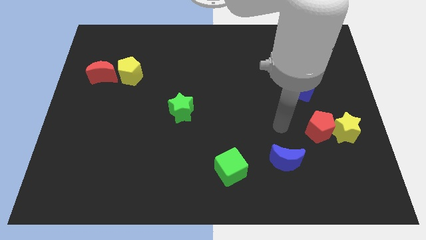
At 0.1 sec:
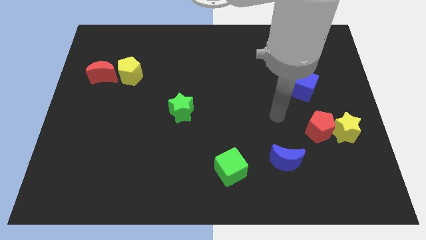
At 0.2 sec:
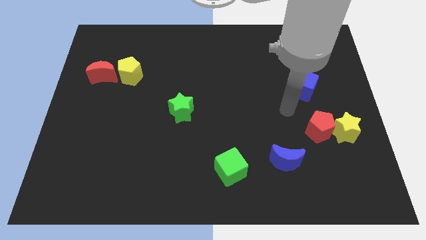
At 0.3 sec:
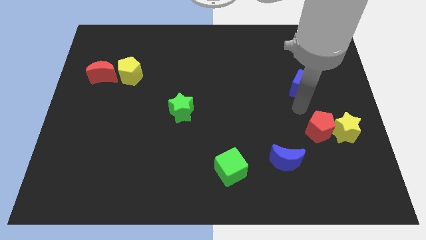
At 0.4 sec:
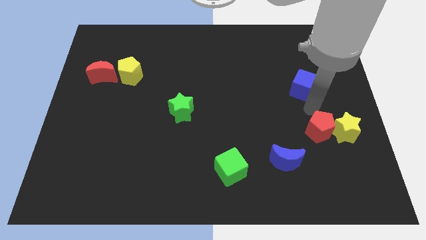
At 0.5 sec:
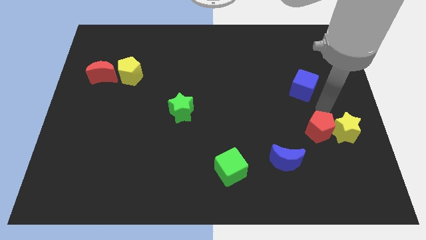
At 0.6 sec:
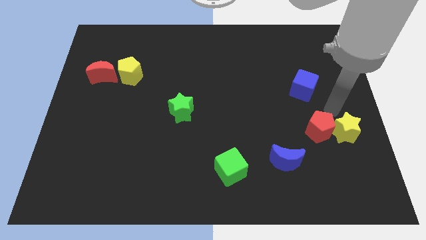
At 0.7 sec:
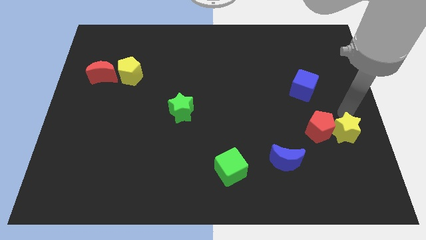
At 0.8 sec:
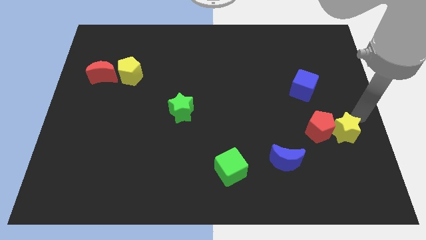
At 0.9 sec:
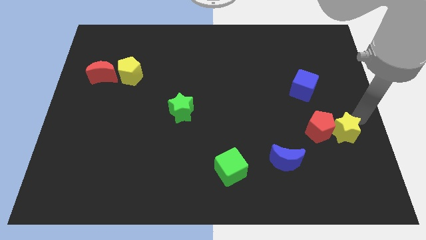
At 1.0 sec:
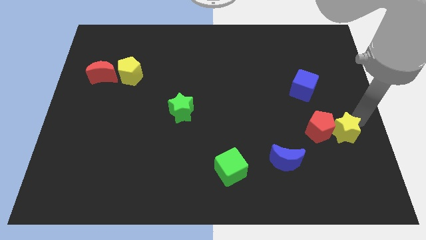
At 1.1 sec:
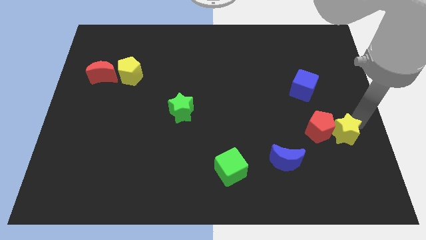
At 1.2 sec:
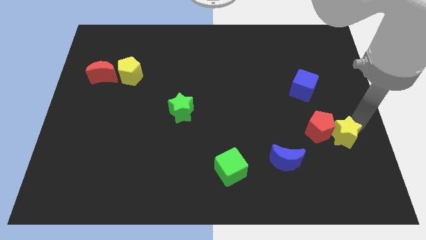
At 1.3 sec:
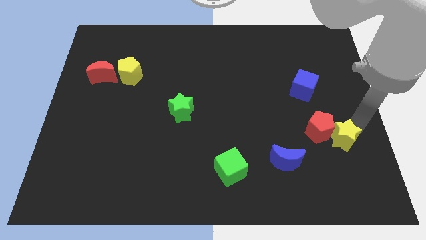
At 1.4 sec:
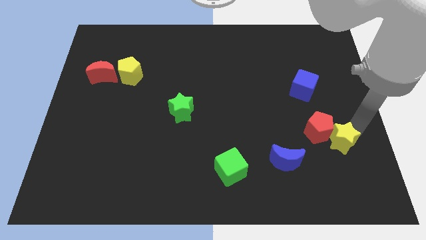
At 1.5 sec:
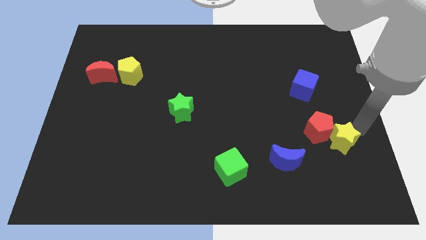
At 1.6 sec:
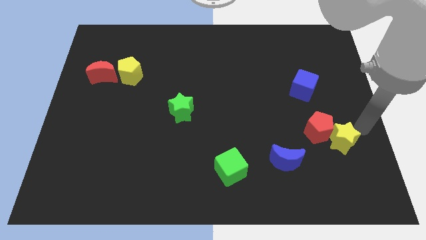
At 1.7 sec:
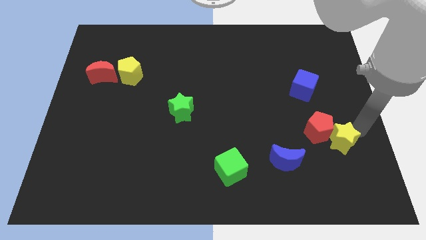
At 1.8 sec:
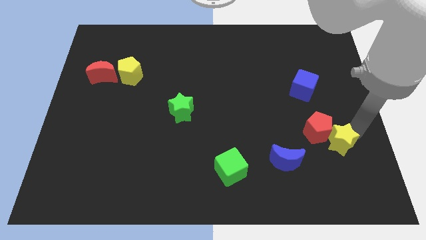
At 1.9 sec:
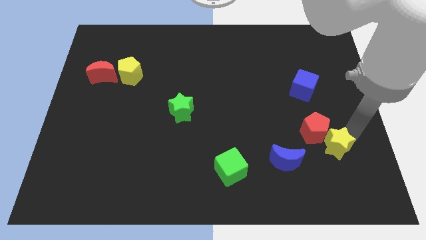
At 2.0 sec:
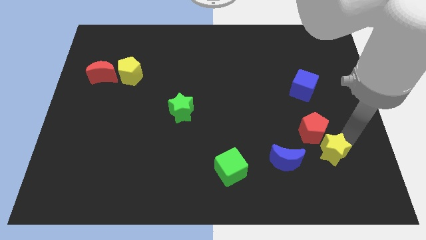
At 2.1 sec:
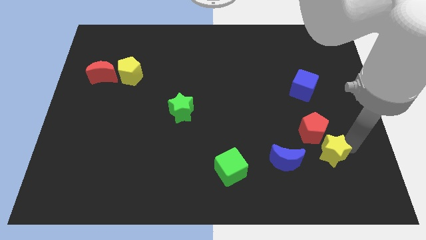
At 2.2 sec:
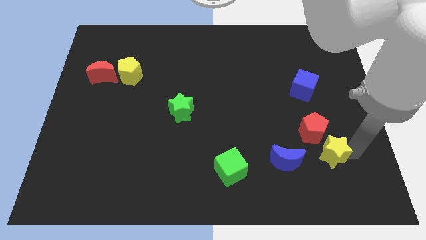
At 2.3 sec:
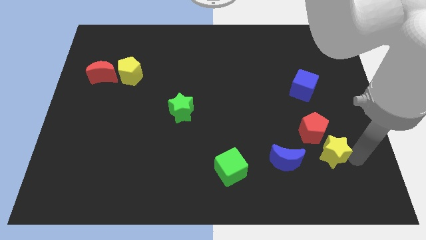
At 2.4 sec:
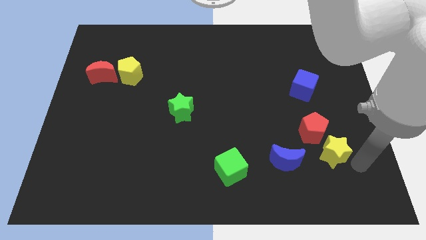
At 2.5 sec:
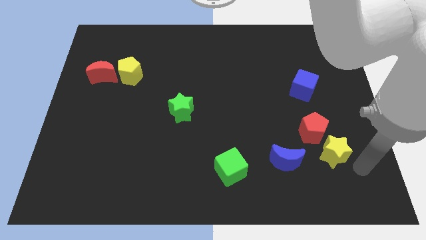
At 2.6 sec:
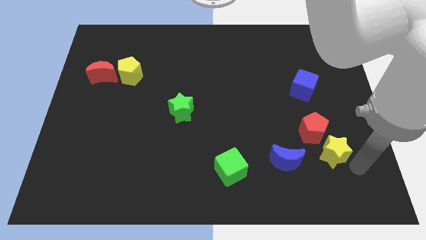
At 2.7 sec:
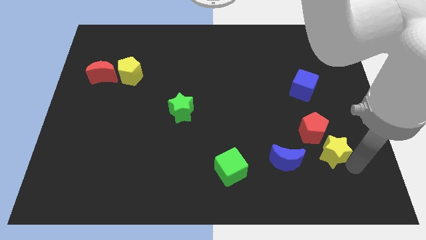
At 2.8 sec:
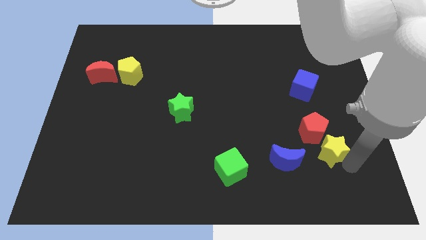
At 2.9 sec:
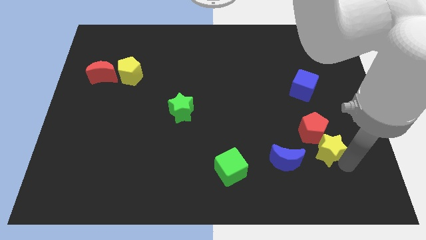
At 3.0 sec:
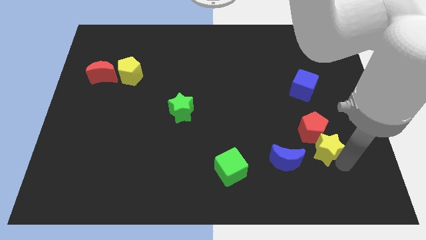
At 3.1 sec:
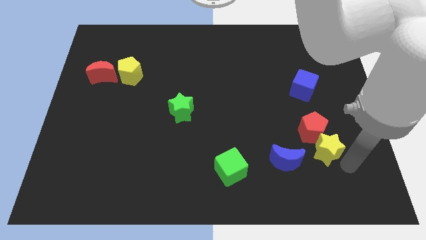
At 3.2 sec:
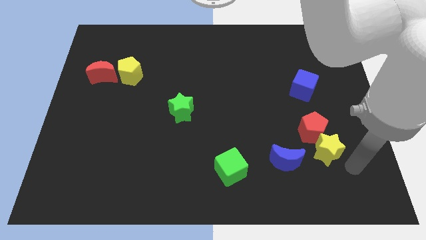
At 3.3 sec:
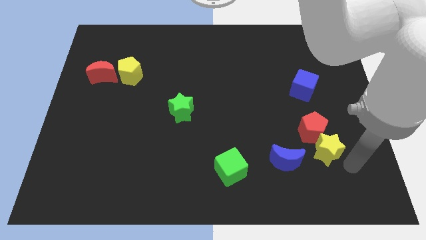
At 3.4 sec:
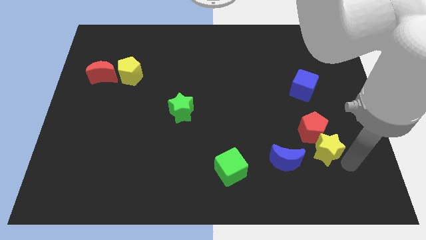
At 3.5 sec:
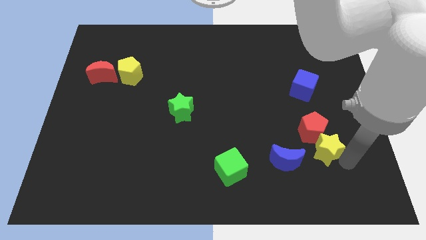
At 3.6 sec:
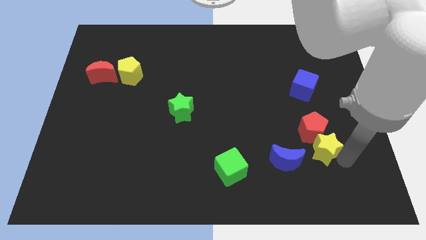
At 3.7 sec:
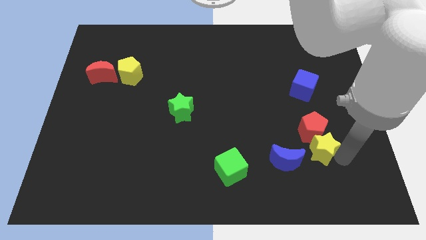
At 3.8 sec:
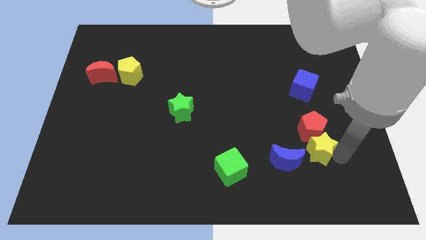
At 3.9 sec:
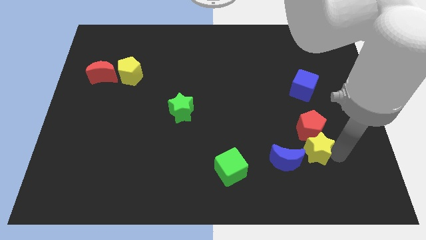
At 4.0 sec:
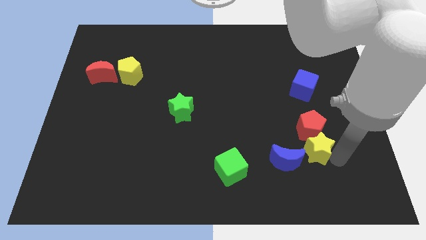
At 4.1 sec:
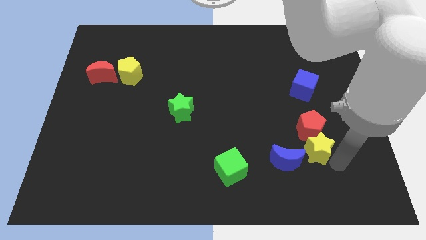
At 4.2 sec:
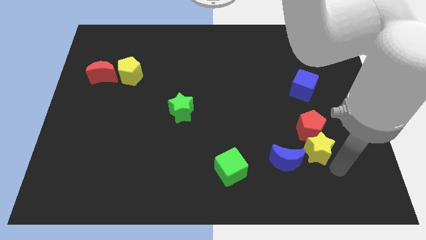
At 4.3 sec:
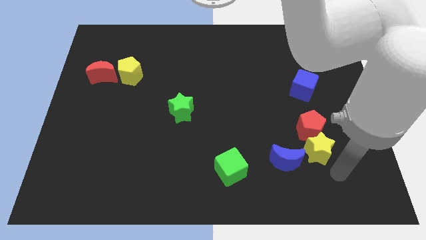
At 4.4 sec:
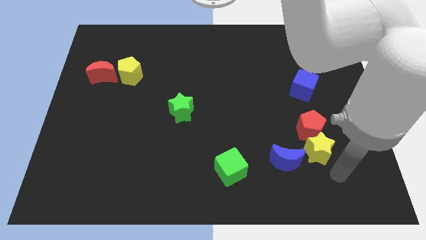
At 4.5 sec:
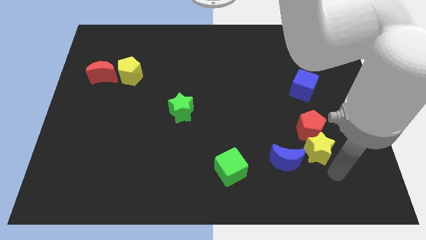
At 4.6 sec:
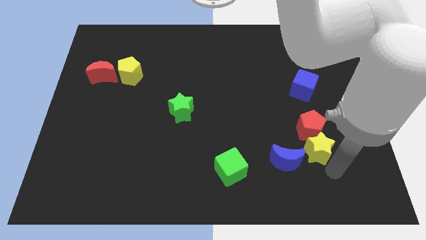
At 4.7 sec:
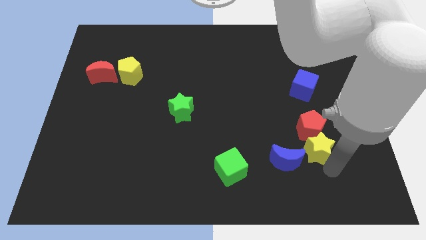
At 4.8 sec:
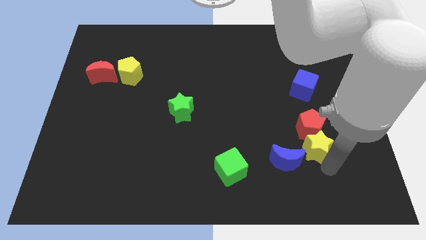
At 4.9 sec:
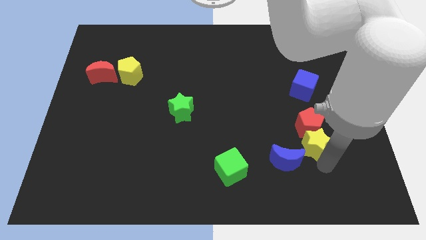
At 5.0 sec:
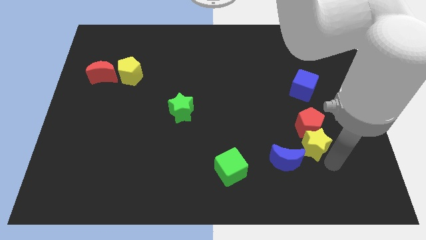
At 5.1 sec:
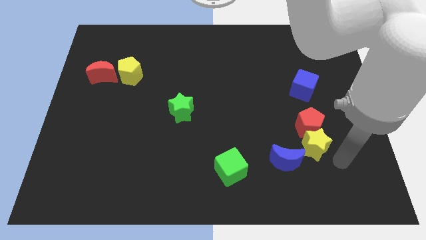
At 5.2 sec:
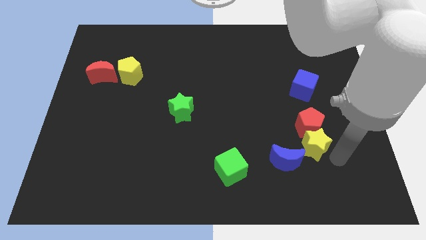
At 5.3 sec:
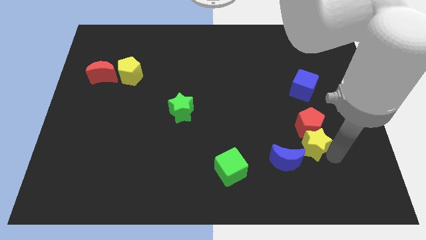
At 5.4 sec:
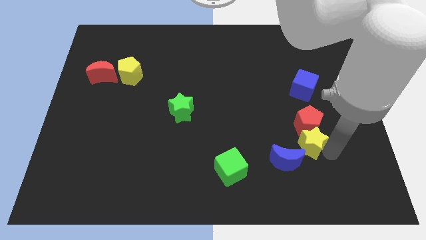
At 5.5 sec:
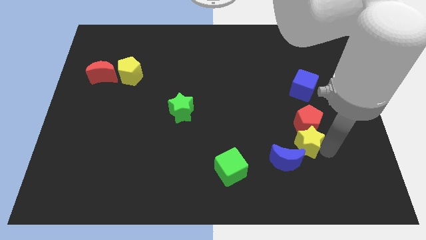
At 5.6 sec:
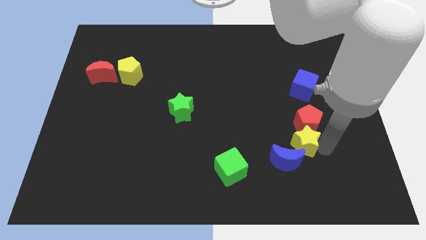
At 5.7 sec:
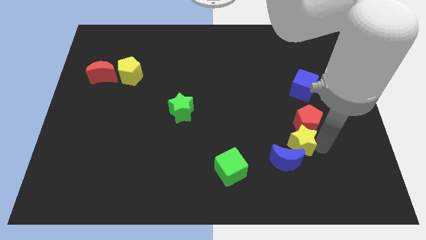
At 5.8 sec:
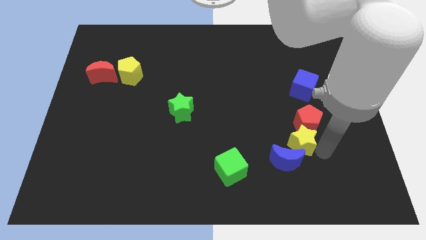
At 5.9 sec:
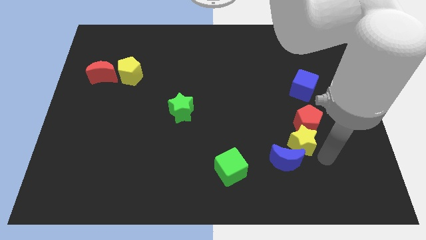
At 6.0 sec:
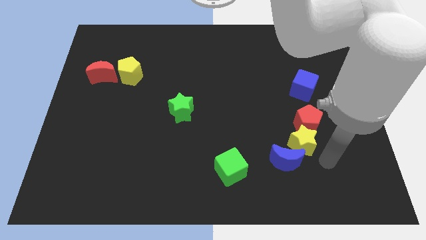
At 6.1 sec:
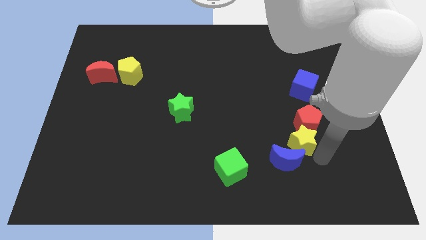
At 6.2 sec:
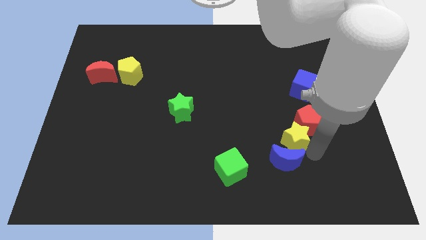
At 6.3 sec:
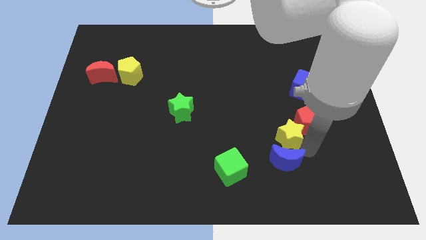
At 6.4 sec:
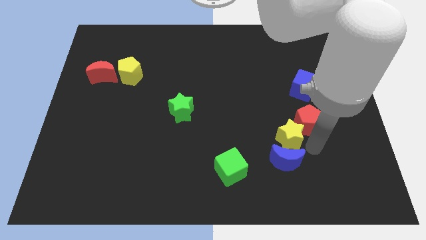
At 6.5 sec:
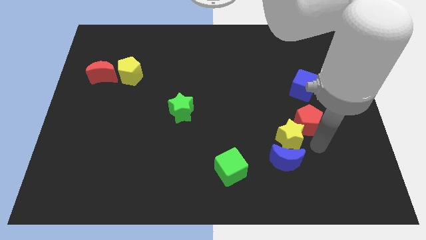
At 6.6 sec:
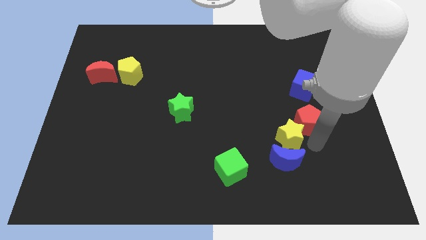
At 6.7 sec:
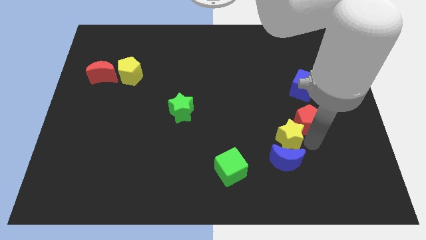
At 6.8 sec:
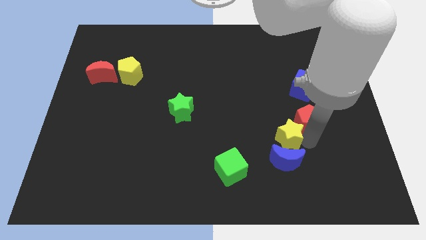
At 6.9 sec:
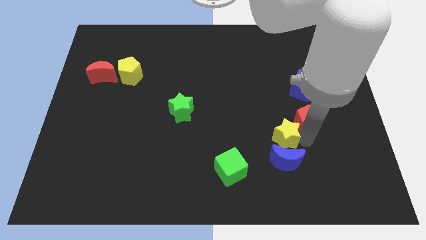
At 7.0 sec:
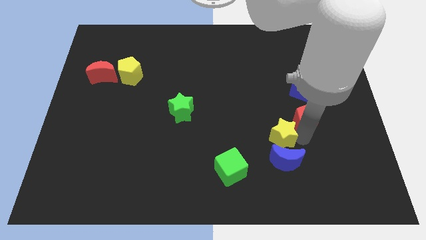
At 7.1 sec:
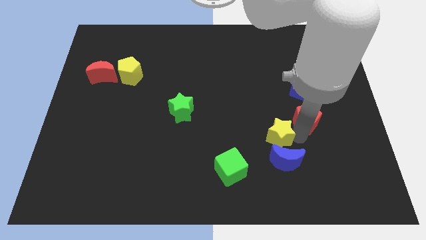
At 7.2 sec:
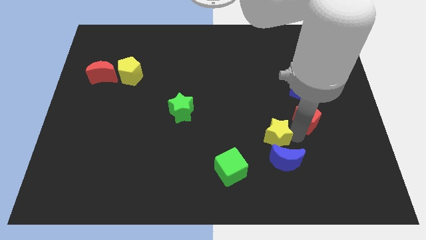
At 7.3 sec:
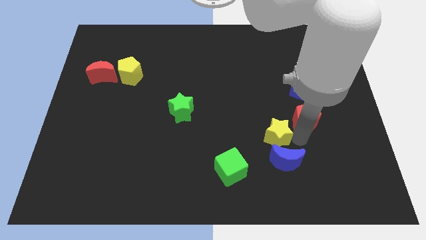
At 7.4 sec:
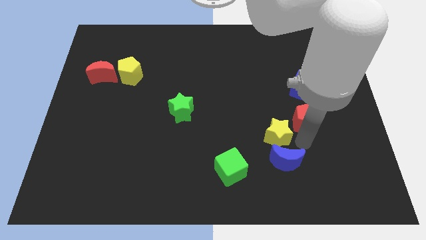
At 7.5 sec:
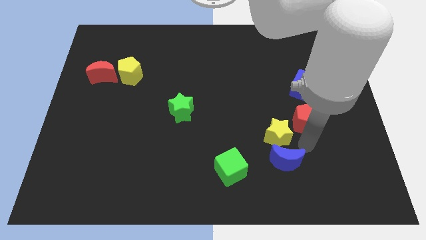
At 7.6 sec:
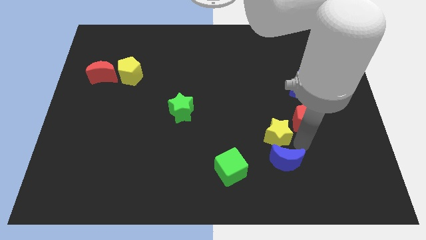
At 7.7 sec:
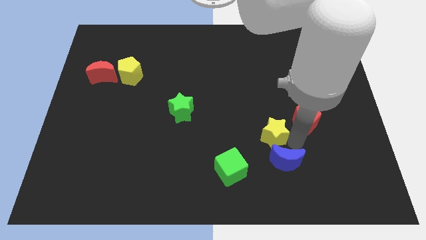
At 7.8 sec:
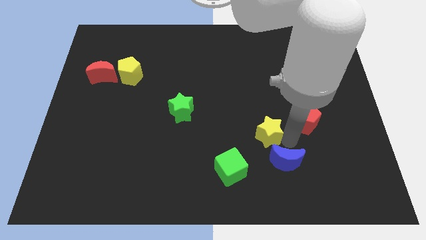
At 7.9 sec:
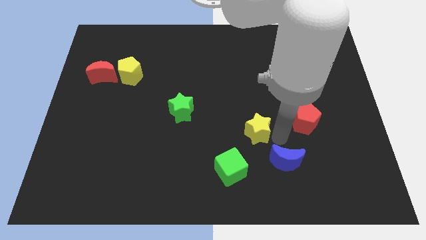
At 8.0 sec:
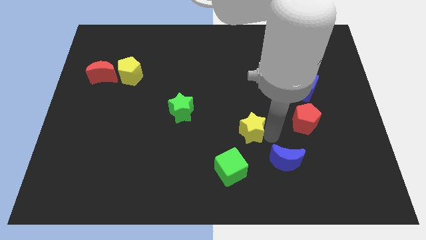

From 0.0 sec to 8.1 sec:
slide the yellow star left
